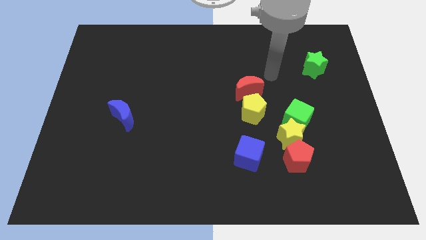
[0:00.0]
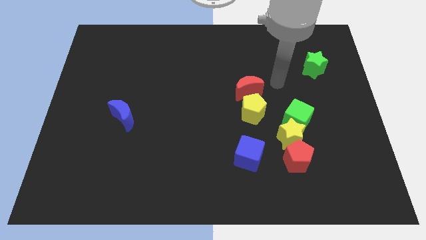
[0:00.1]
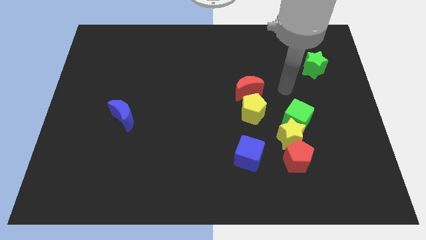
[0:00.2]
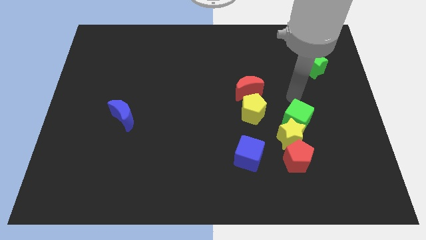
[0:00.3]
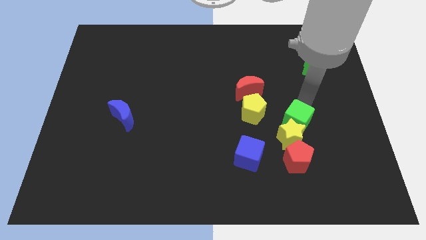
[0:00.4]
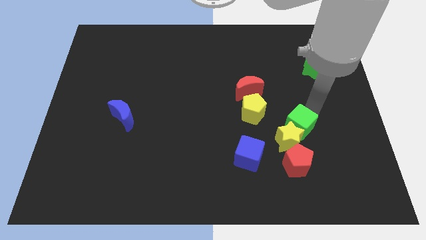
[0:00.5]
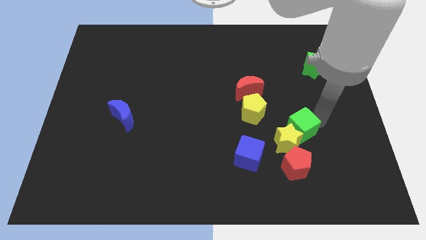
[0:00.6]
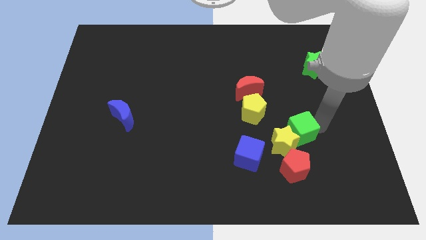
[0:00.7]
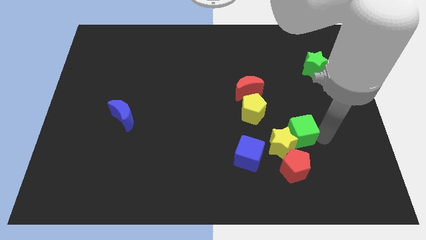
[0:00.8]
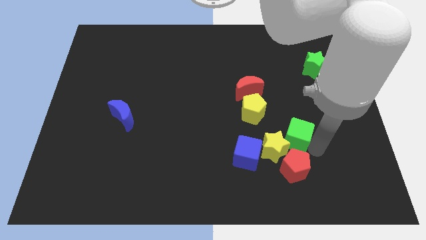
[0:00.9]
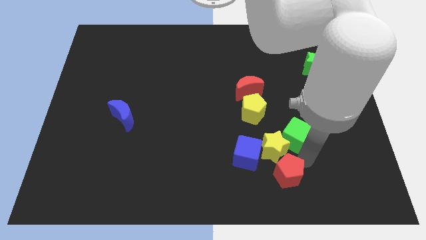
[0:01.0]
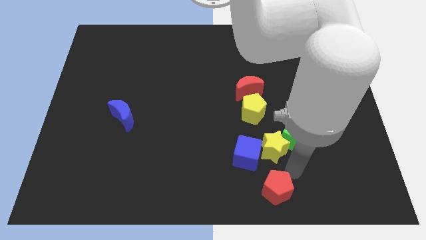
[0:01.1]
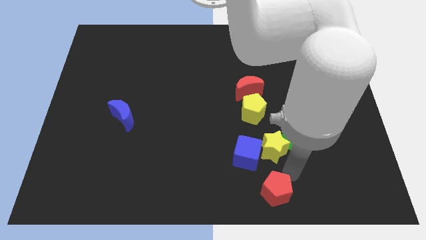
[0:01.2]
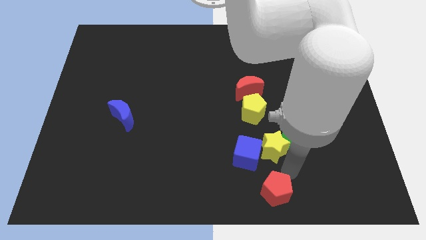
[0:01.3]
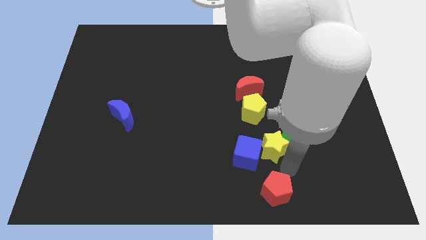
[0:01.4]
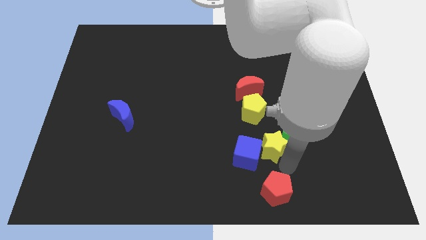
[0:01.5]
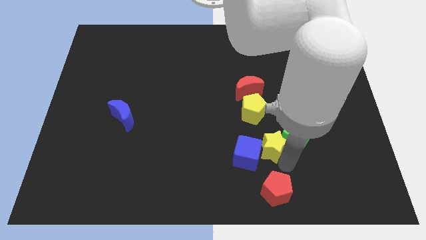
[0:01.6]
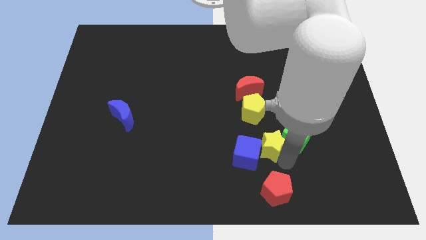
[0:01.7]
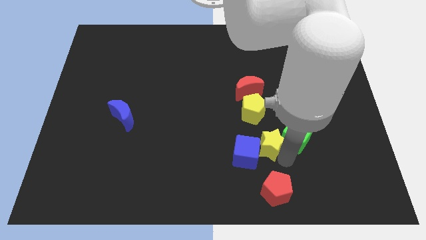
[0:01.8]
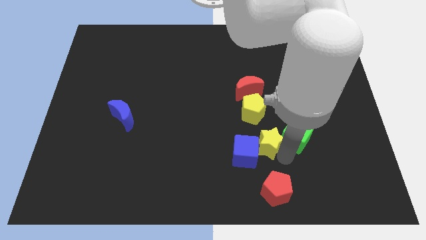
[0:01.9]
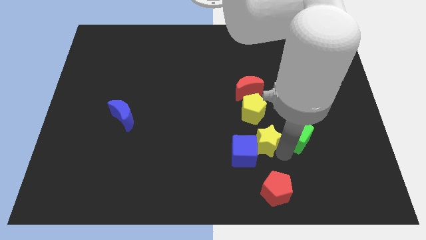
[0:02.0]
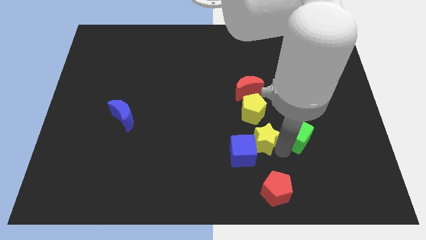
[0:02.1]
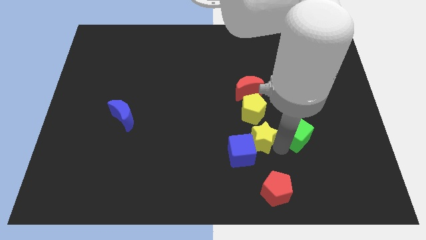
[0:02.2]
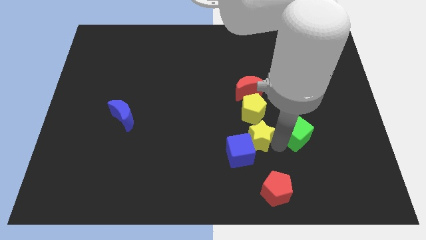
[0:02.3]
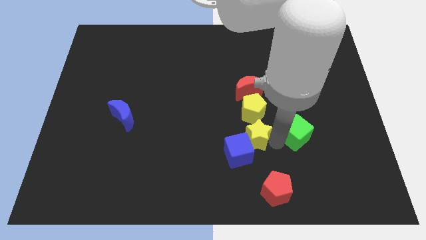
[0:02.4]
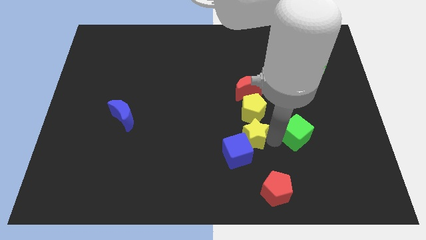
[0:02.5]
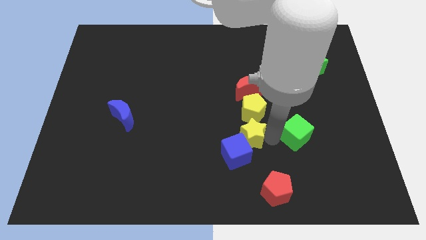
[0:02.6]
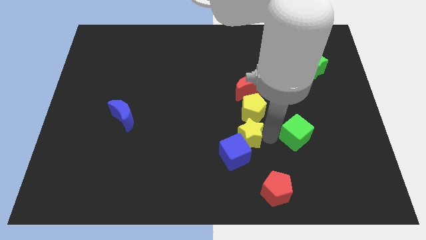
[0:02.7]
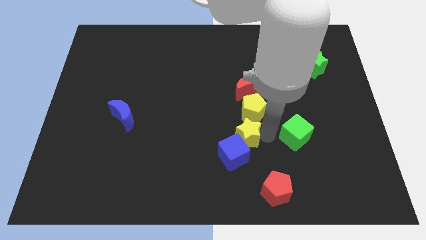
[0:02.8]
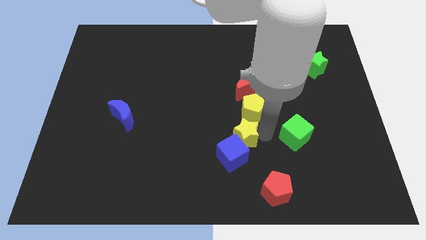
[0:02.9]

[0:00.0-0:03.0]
pull the yellow star apart from the red pentagon and green cube

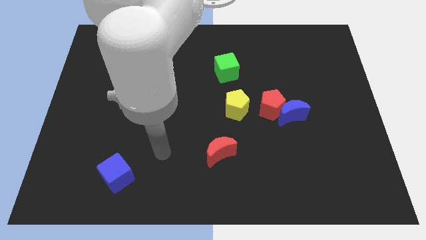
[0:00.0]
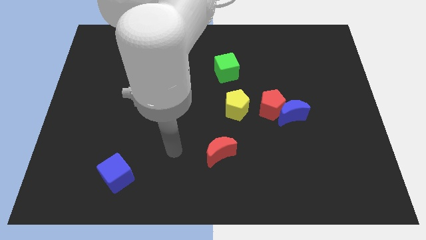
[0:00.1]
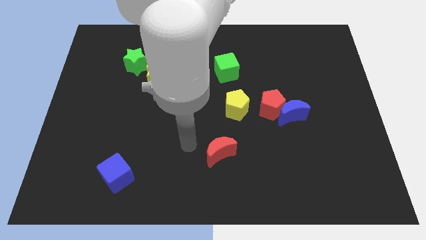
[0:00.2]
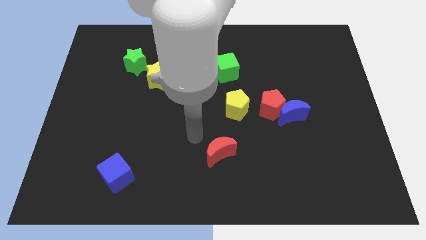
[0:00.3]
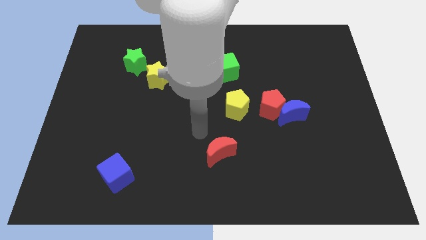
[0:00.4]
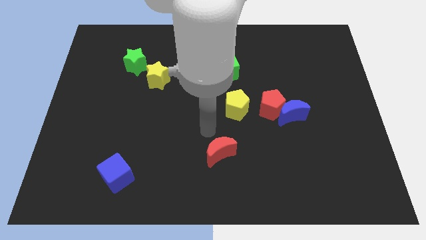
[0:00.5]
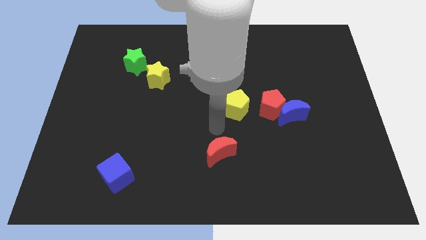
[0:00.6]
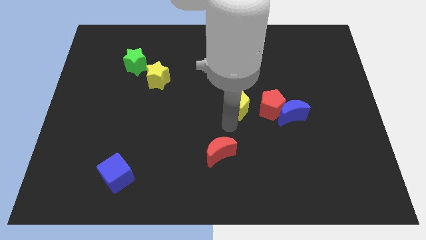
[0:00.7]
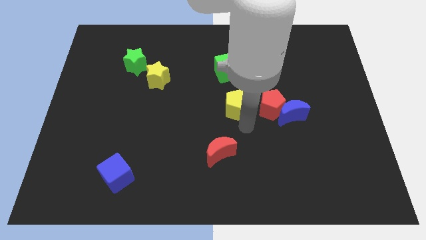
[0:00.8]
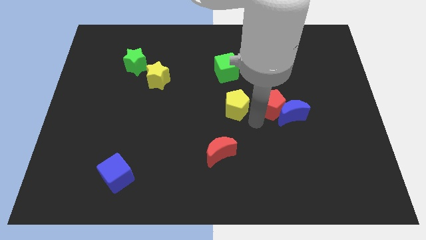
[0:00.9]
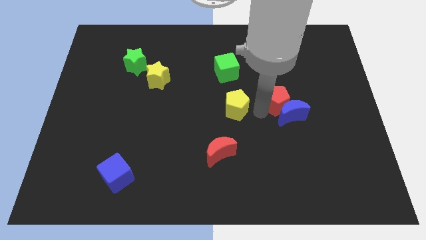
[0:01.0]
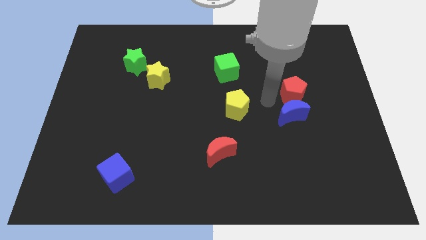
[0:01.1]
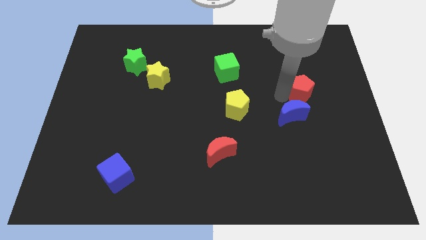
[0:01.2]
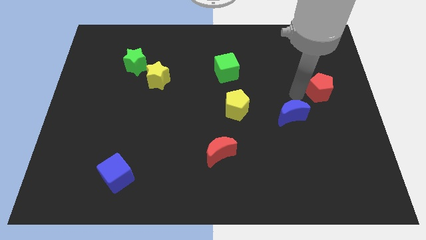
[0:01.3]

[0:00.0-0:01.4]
move the blue moon away from the red pentagon

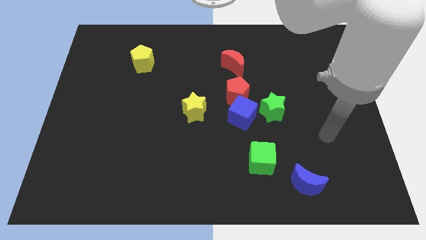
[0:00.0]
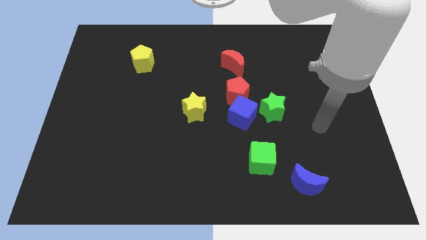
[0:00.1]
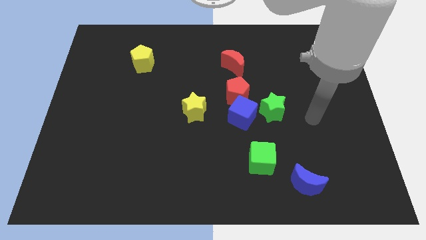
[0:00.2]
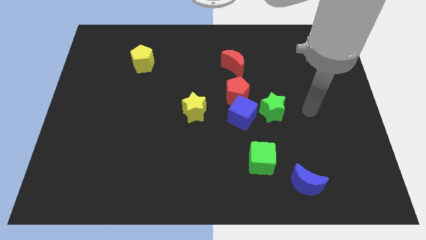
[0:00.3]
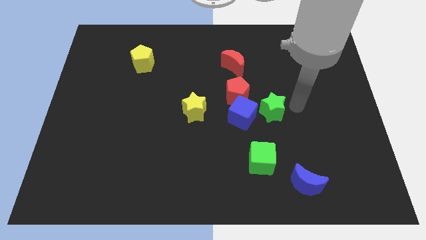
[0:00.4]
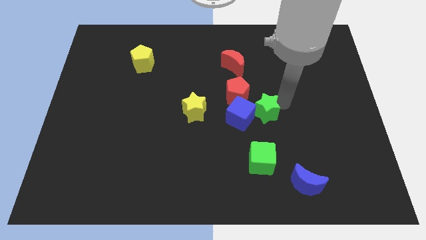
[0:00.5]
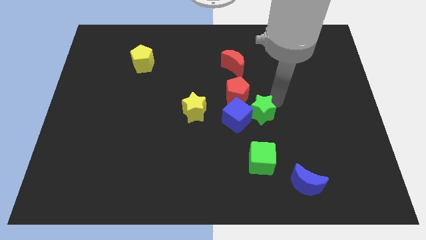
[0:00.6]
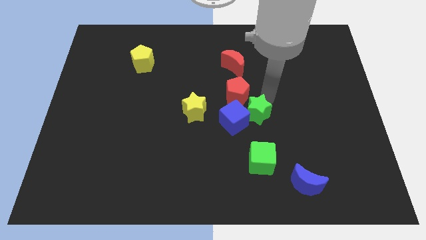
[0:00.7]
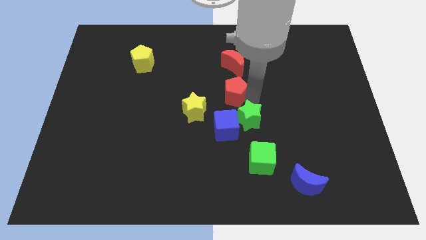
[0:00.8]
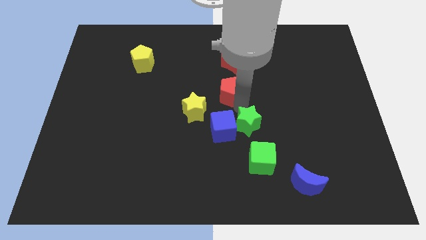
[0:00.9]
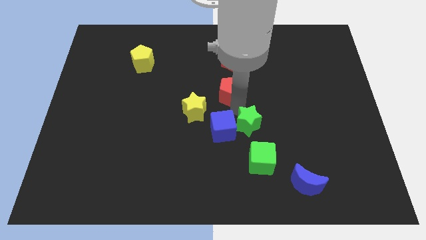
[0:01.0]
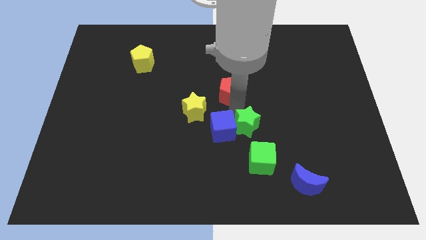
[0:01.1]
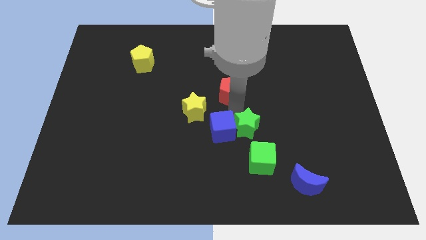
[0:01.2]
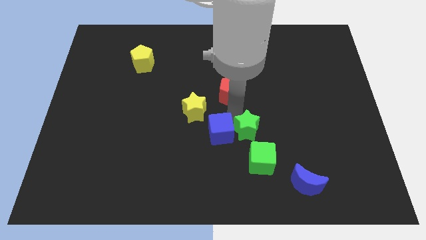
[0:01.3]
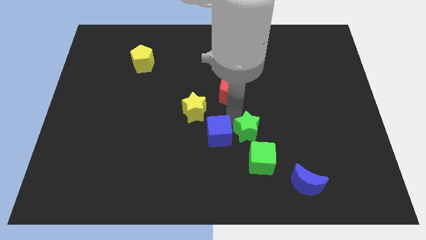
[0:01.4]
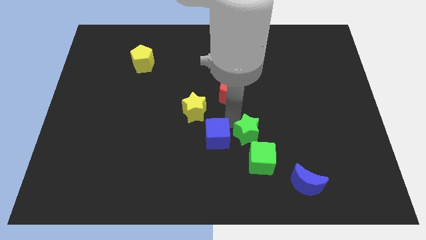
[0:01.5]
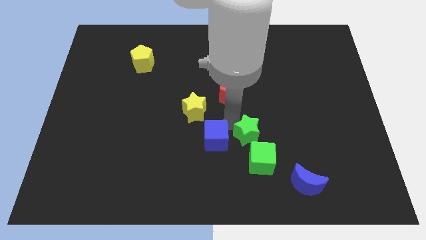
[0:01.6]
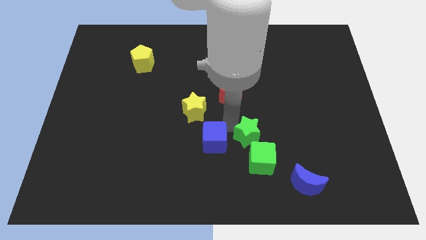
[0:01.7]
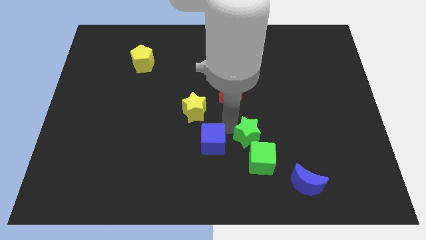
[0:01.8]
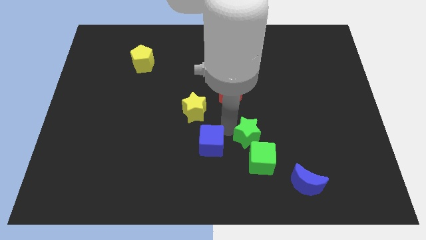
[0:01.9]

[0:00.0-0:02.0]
separate the blue cube from the red pentagon and green star

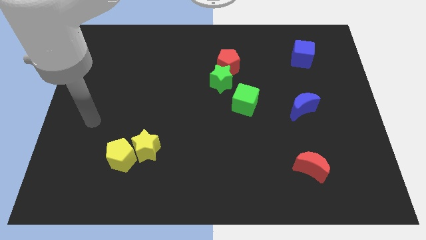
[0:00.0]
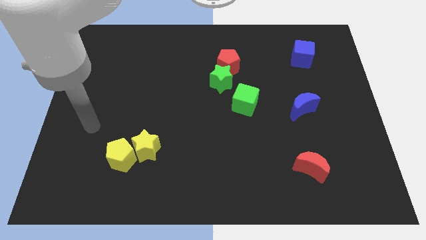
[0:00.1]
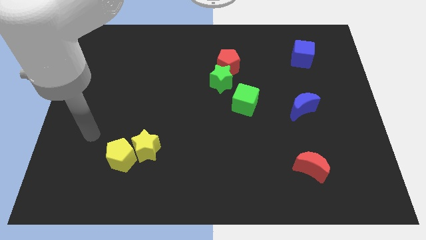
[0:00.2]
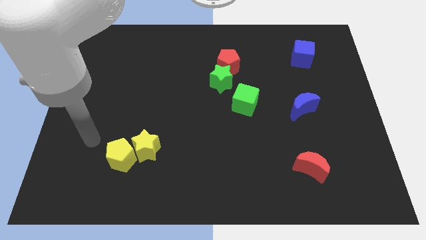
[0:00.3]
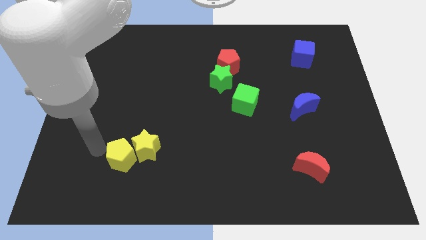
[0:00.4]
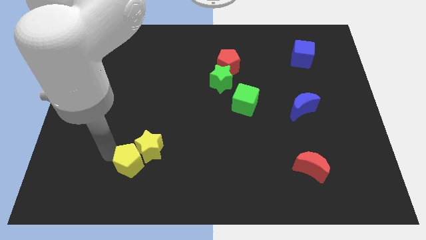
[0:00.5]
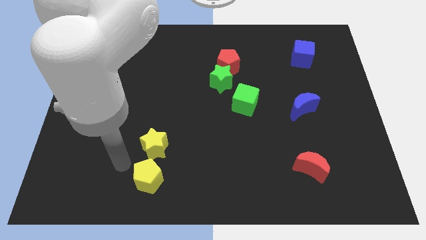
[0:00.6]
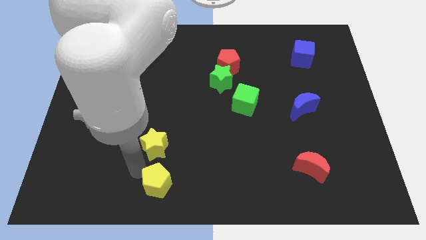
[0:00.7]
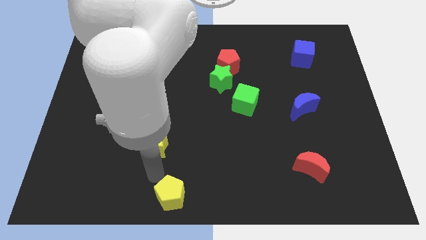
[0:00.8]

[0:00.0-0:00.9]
pull the yellow star apart from the yellow pentagon

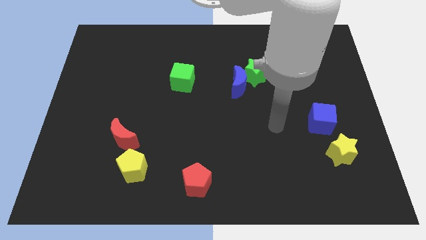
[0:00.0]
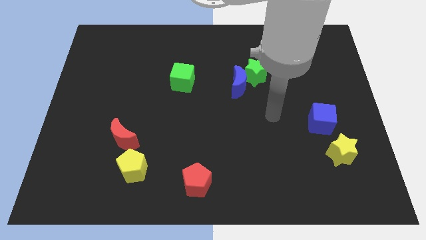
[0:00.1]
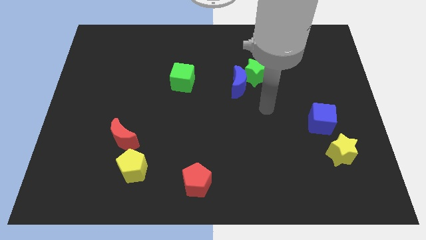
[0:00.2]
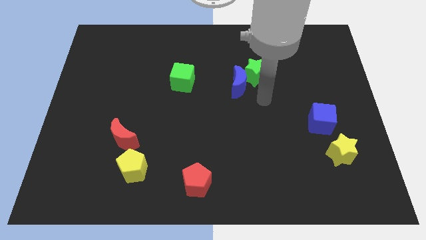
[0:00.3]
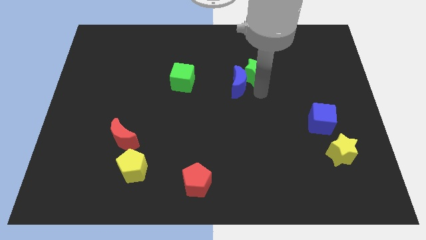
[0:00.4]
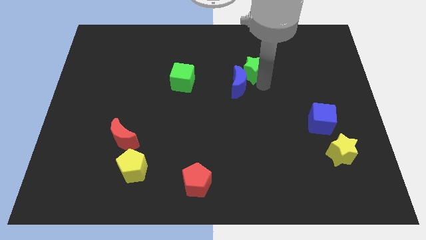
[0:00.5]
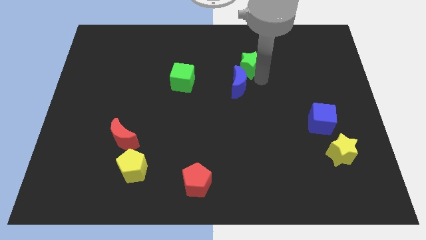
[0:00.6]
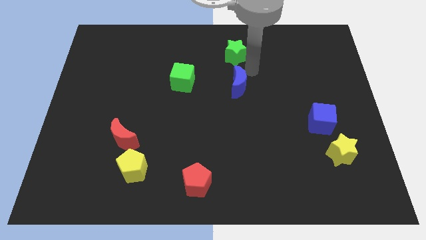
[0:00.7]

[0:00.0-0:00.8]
move the blue moon away from the green star

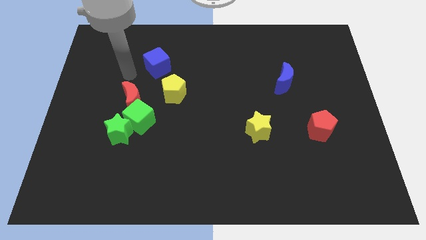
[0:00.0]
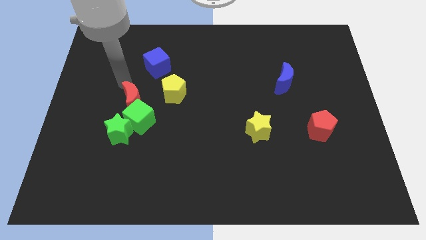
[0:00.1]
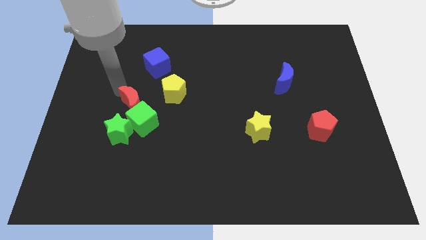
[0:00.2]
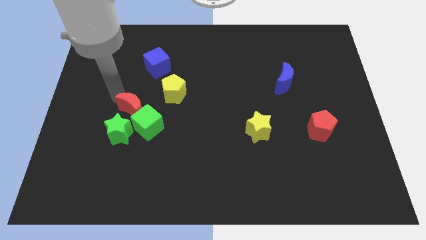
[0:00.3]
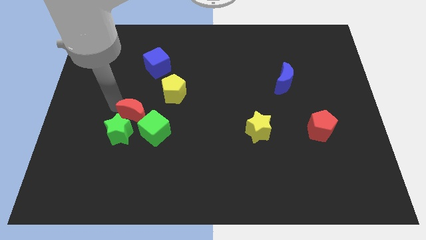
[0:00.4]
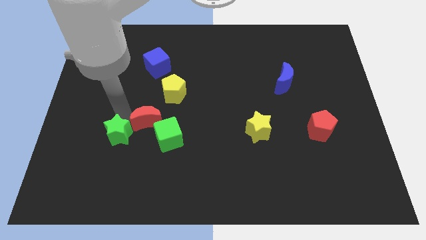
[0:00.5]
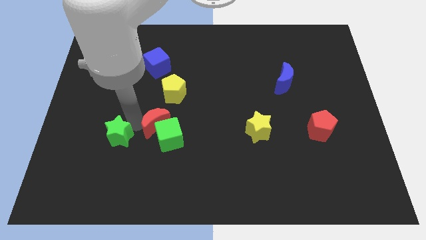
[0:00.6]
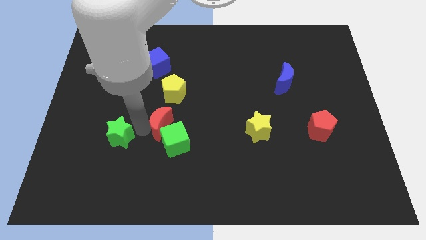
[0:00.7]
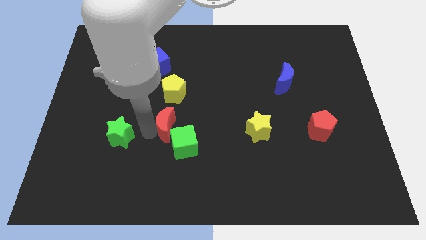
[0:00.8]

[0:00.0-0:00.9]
separate the green cube from the green star and red moon

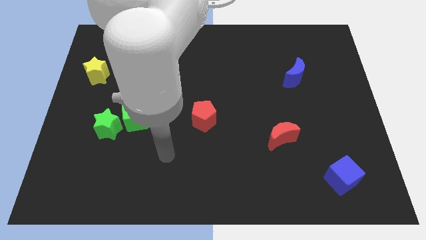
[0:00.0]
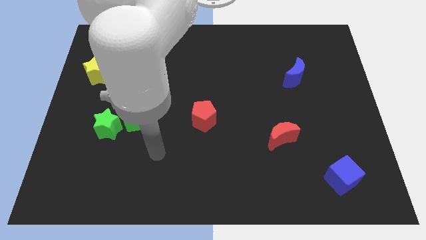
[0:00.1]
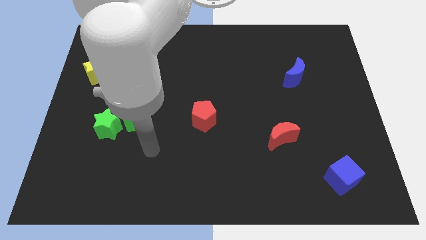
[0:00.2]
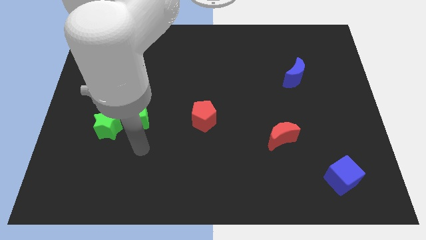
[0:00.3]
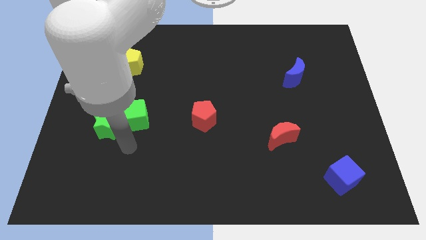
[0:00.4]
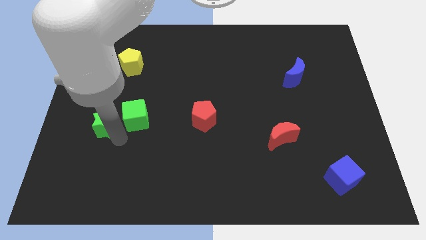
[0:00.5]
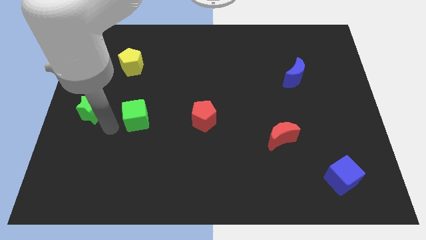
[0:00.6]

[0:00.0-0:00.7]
separate the green cube from the green star
